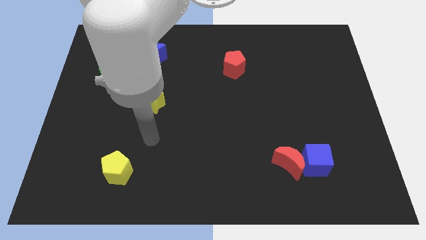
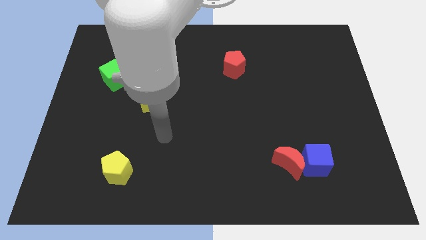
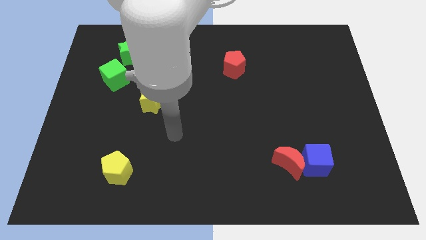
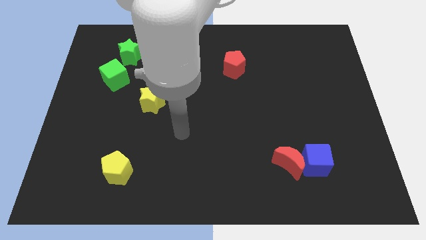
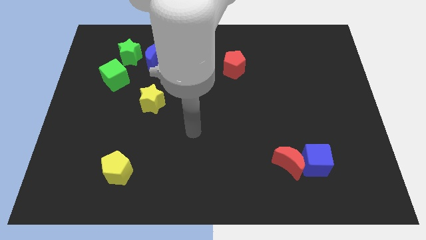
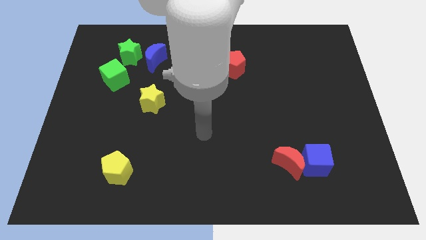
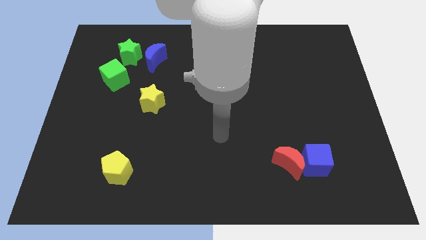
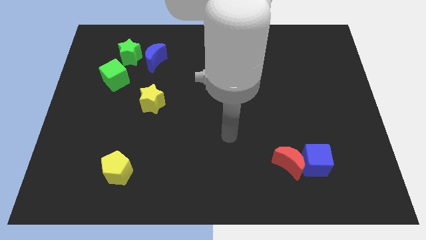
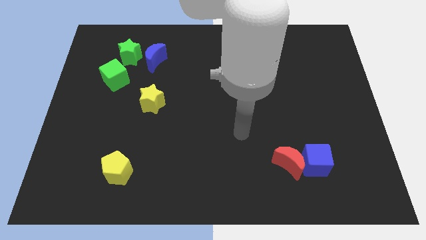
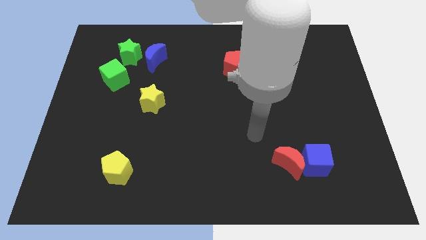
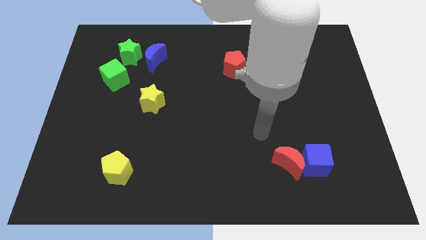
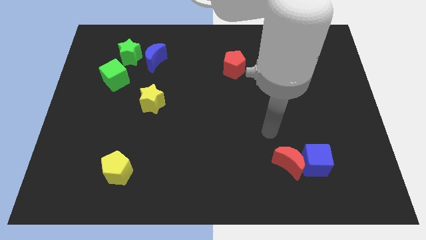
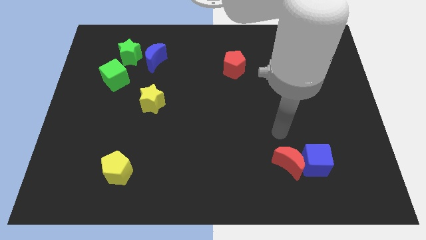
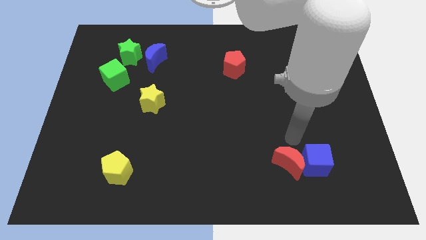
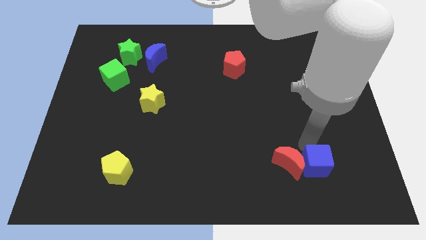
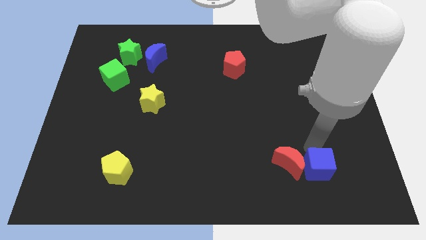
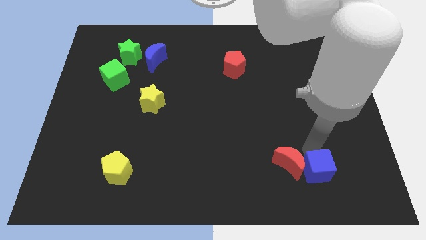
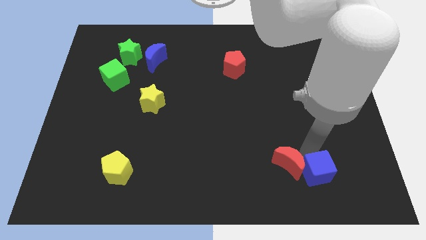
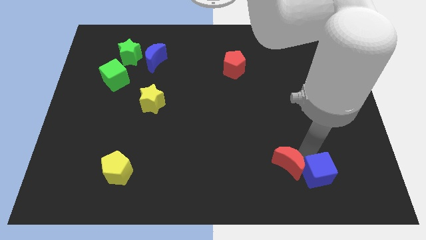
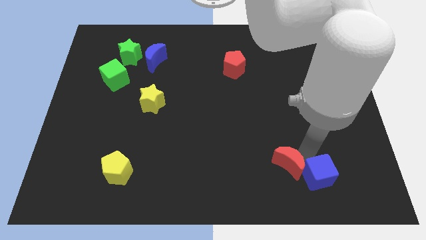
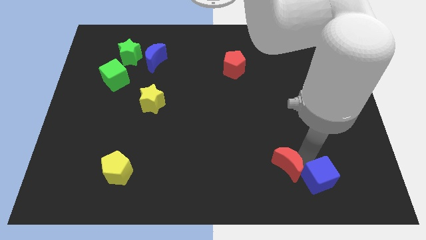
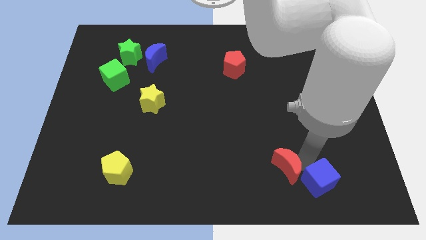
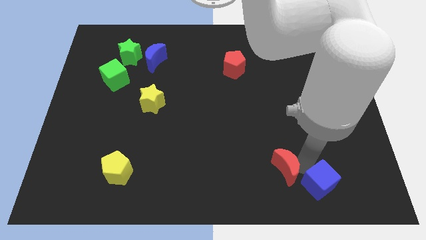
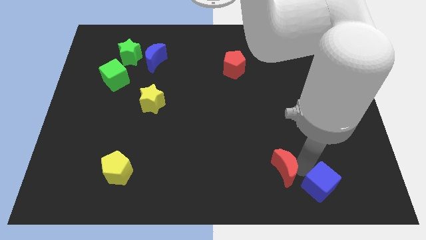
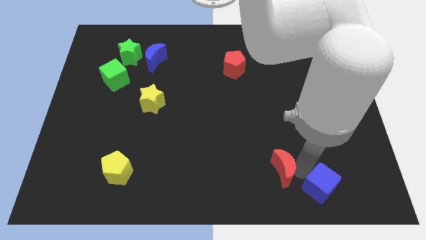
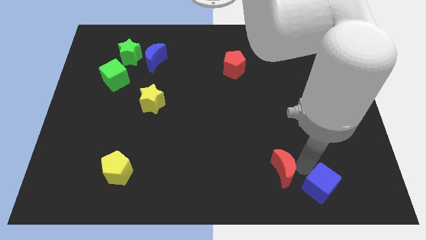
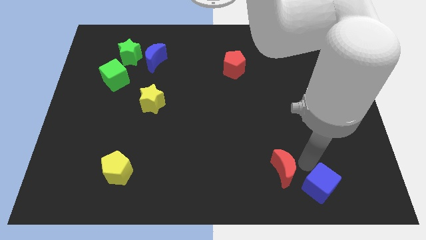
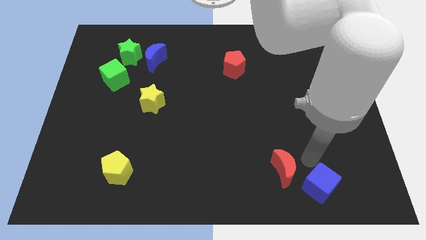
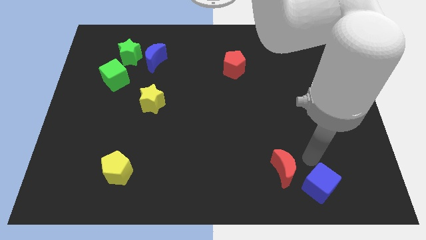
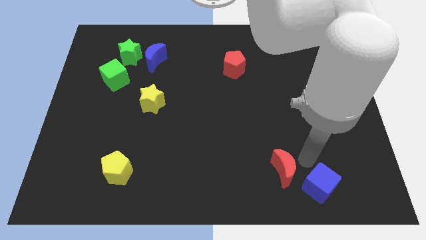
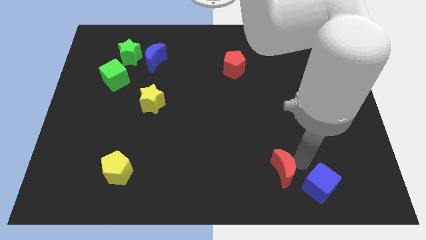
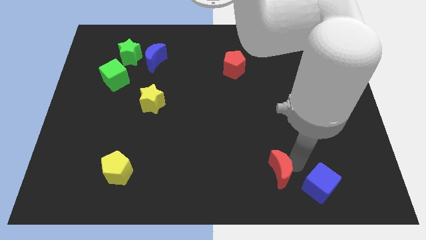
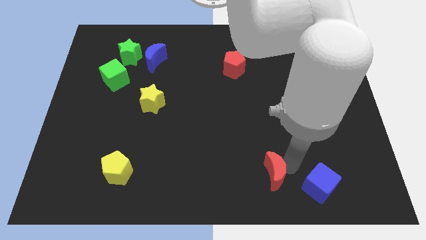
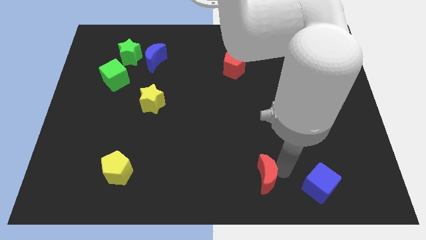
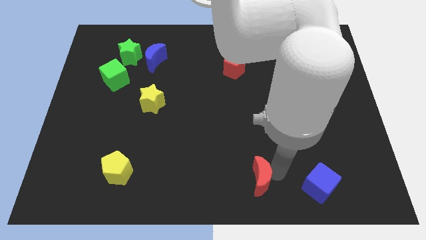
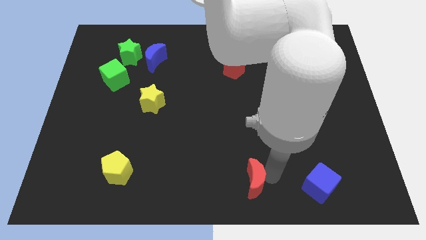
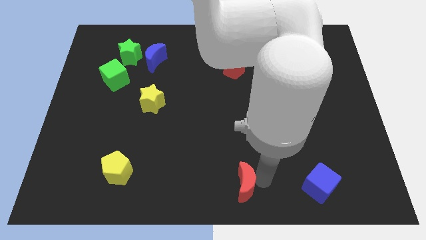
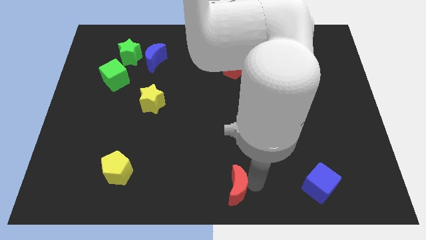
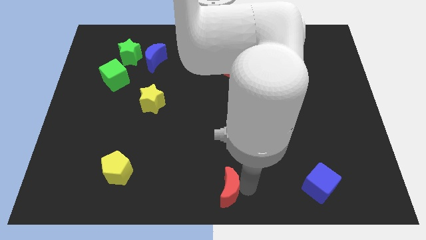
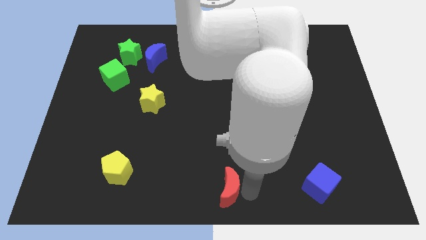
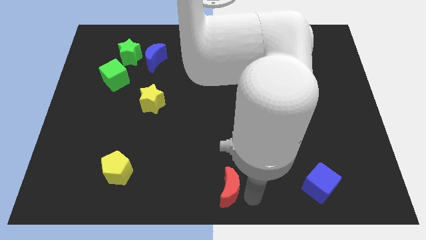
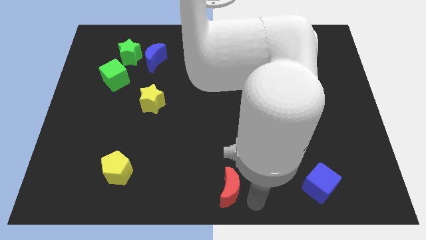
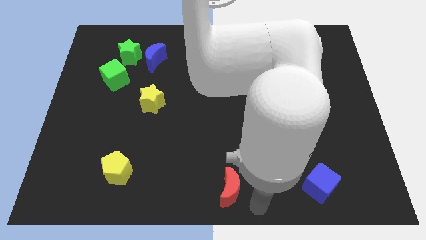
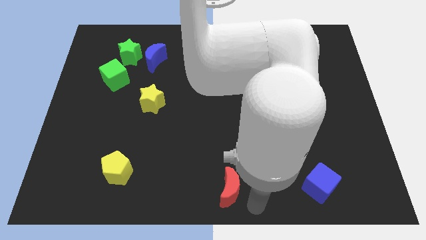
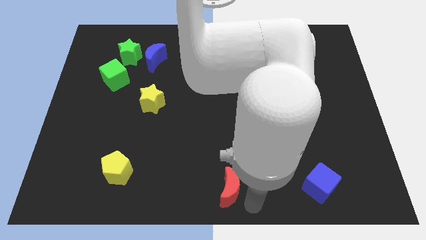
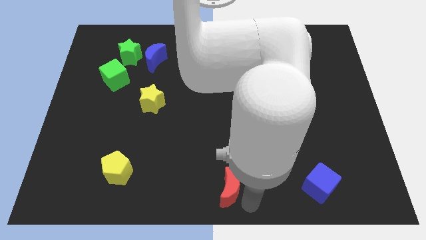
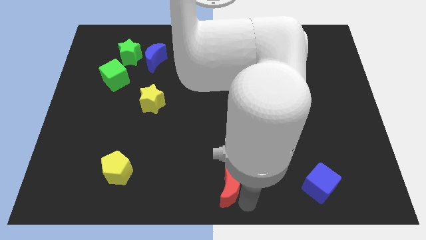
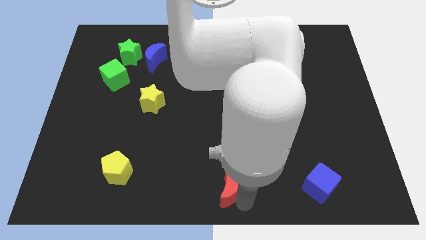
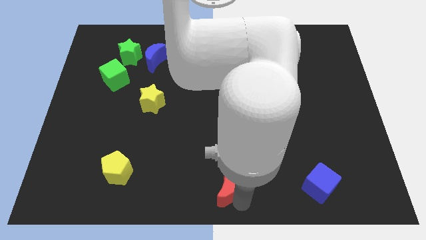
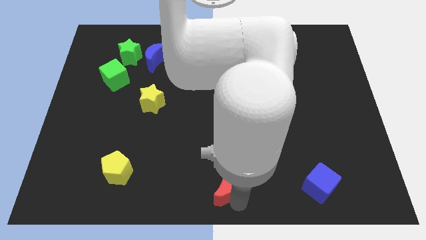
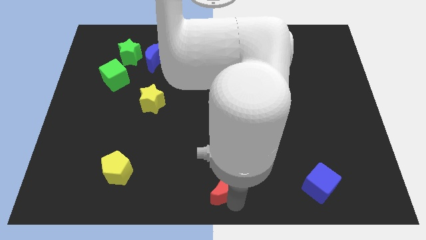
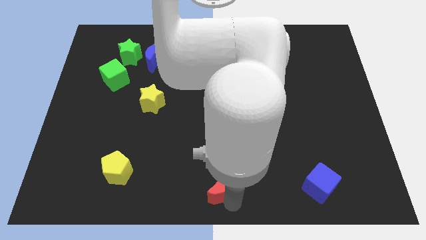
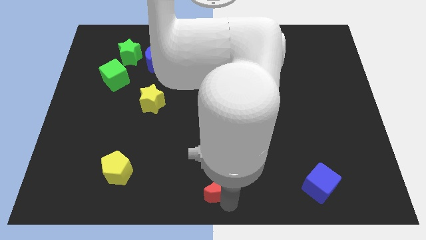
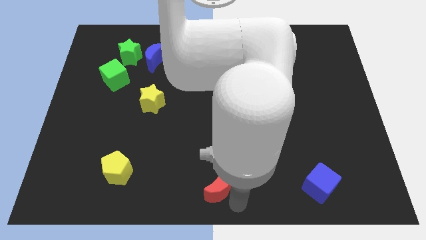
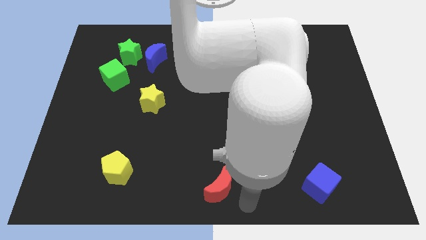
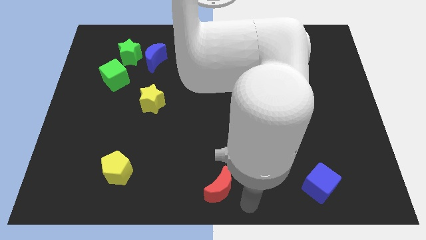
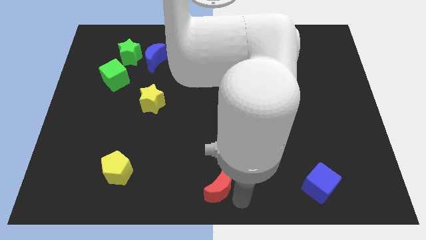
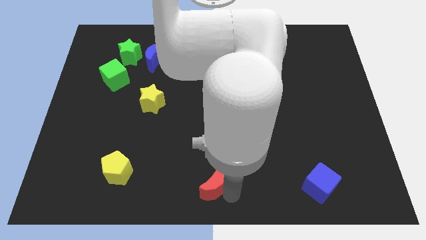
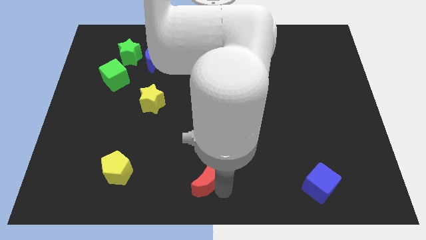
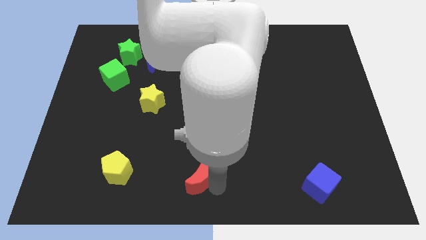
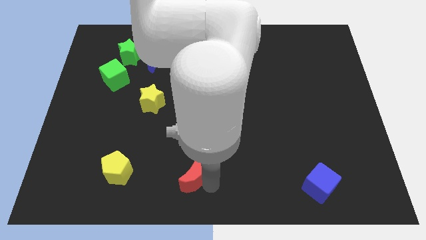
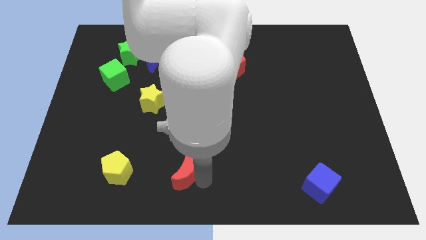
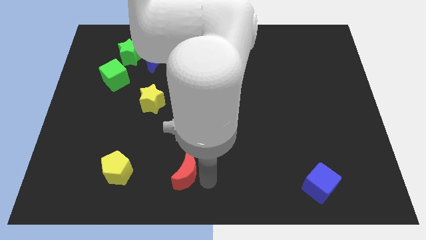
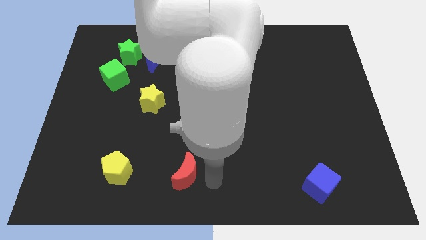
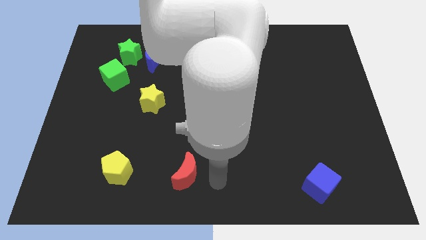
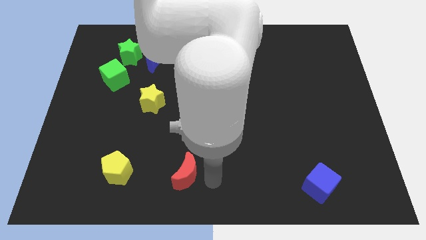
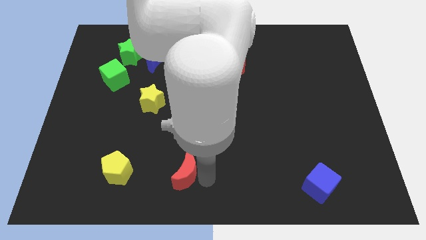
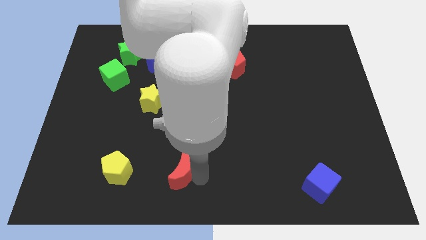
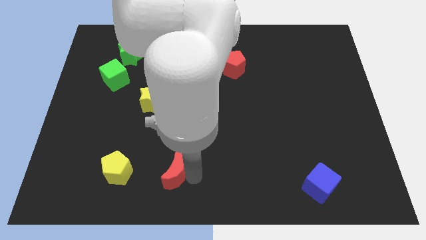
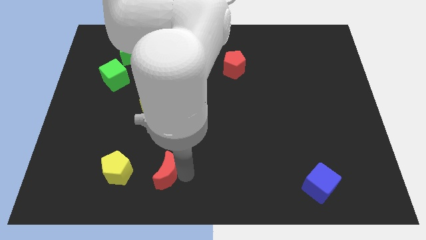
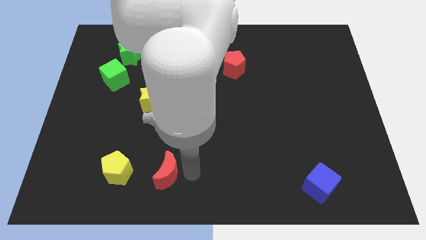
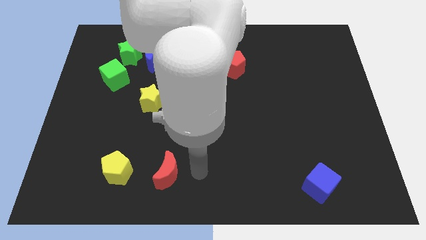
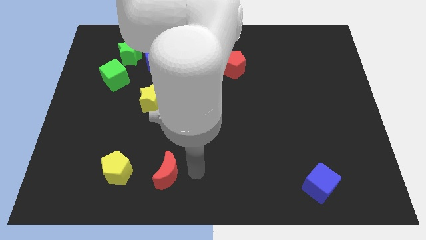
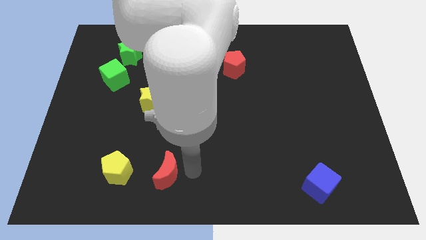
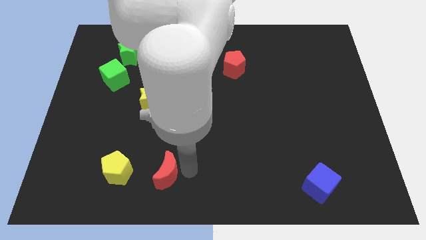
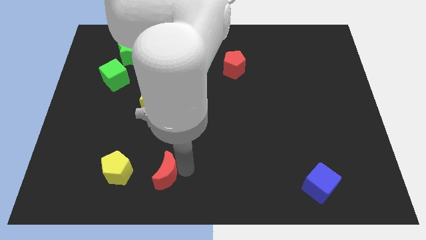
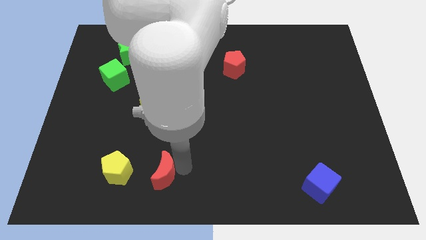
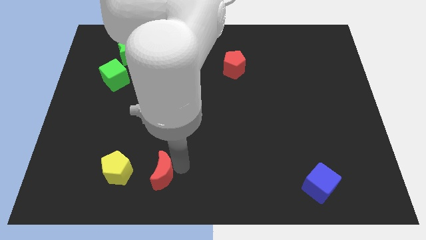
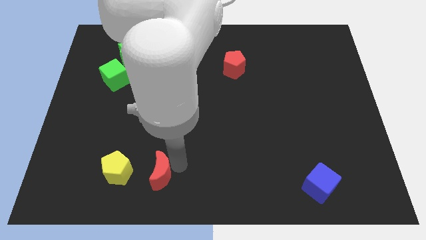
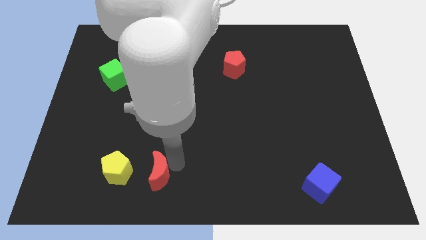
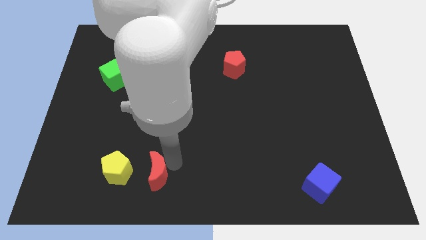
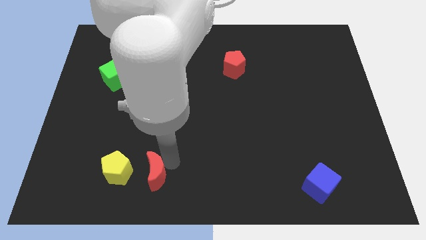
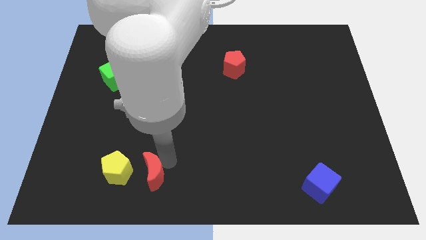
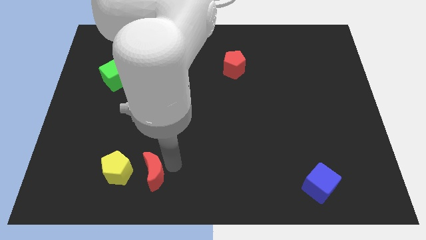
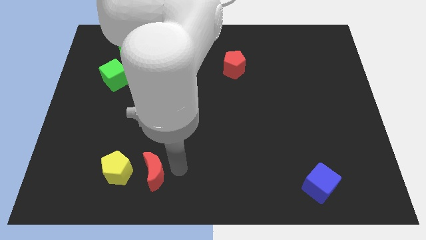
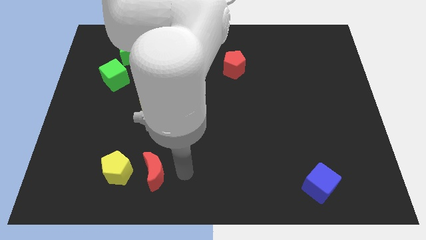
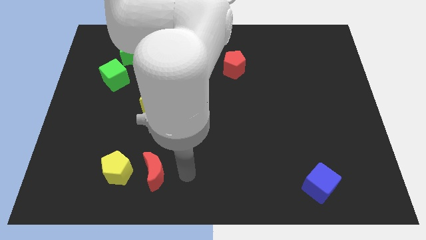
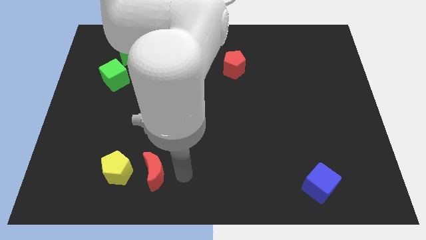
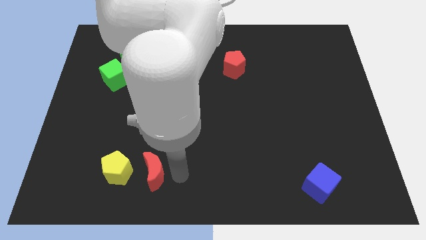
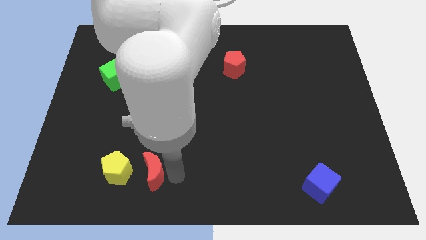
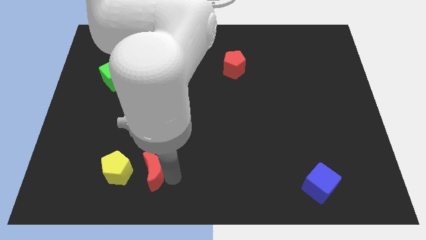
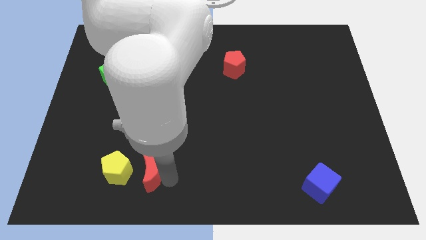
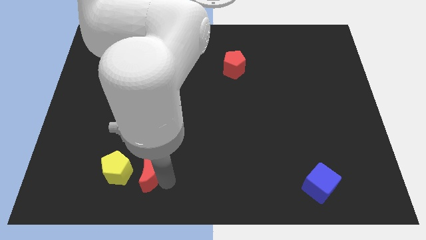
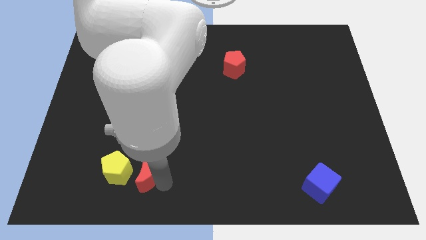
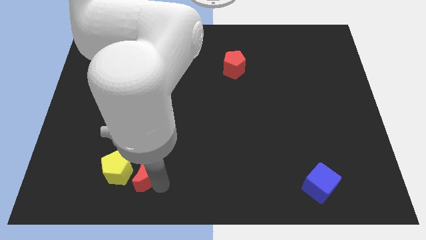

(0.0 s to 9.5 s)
push the red moon next to the yellow pentagon
